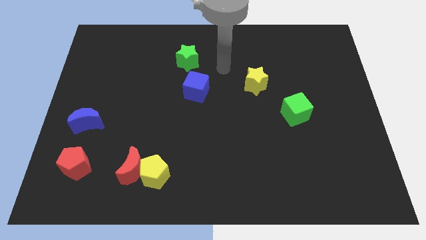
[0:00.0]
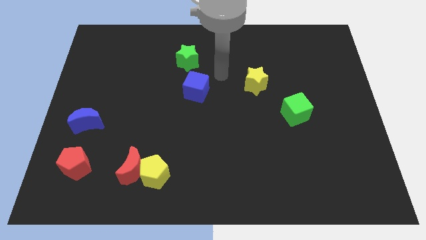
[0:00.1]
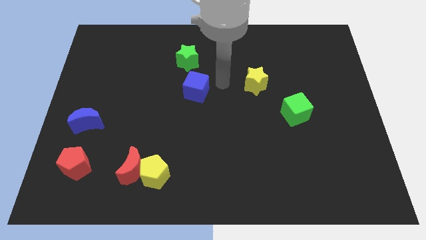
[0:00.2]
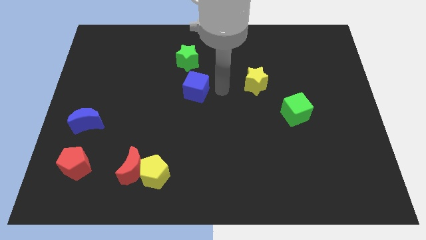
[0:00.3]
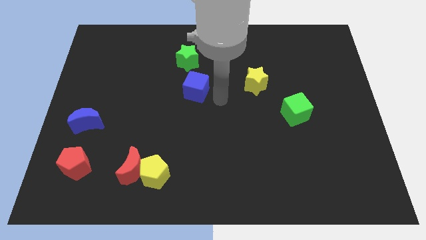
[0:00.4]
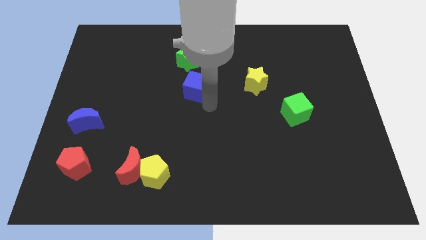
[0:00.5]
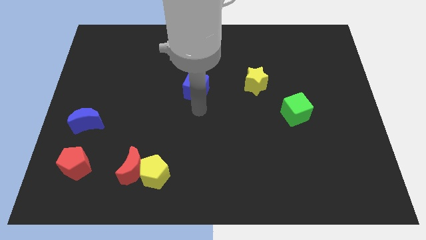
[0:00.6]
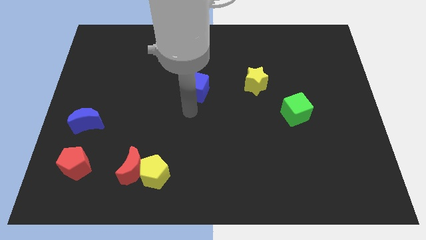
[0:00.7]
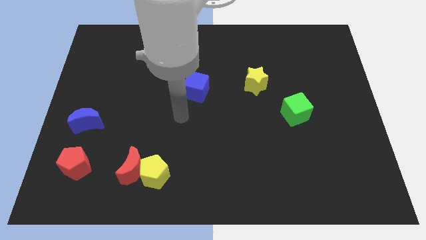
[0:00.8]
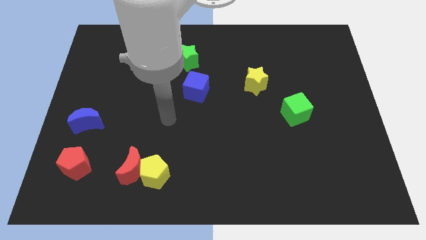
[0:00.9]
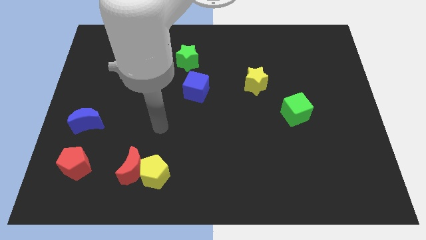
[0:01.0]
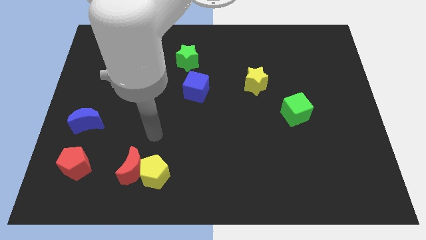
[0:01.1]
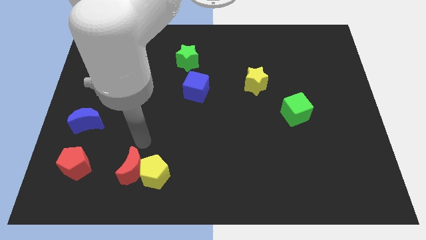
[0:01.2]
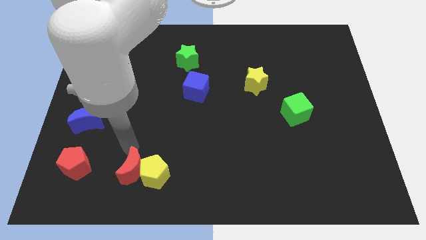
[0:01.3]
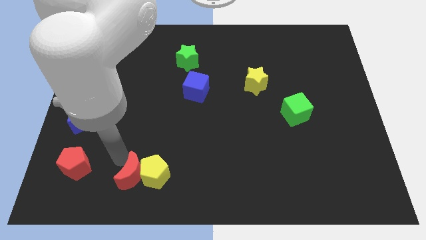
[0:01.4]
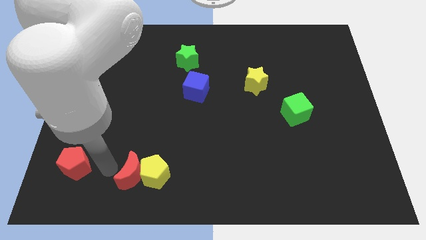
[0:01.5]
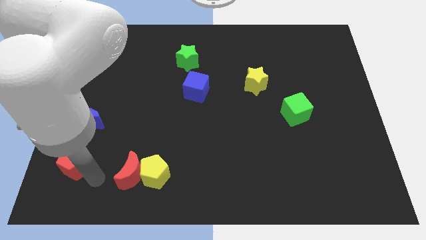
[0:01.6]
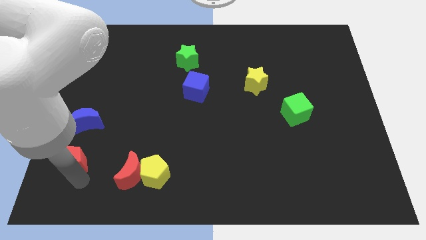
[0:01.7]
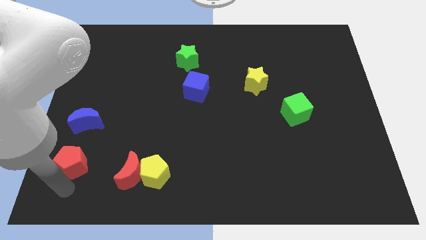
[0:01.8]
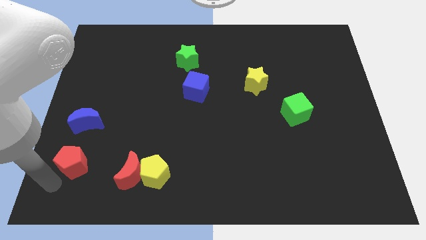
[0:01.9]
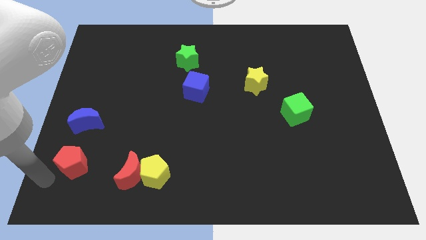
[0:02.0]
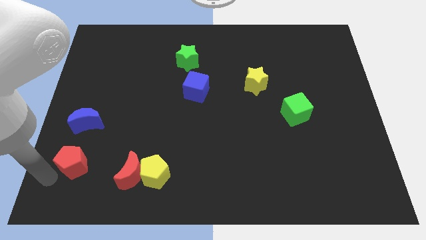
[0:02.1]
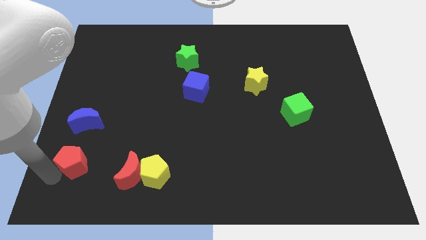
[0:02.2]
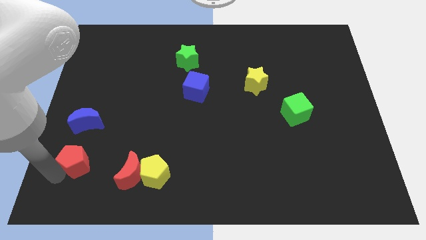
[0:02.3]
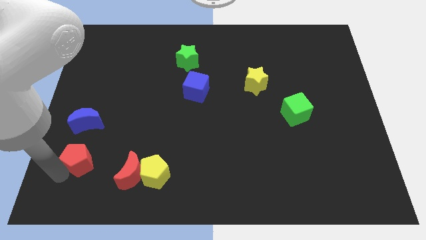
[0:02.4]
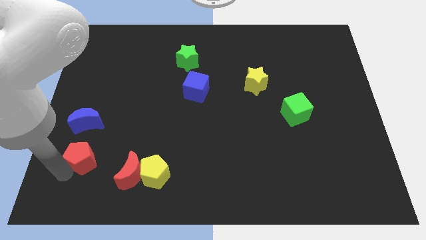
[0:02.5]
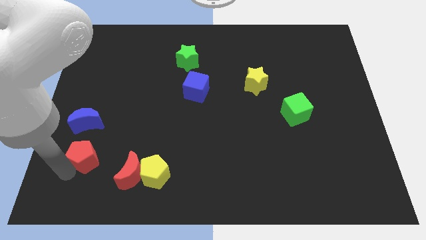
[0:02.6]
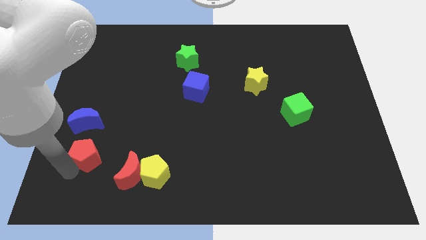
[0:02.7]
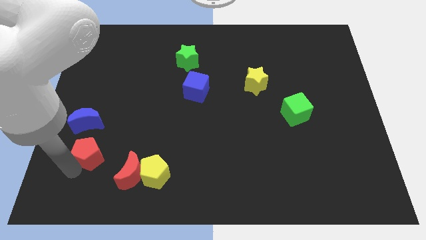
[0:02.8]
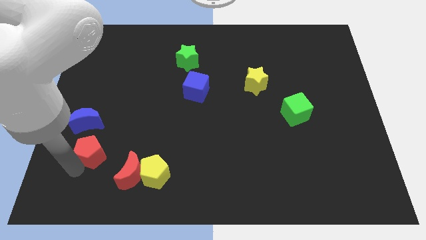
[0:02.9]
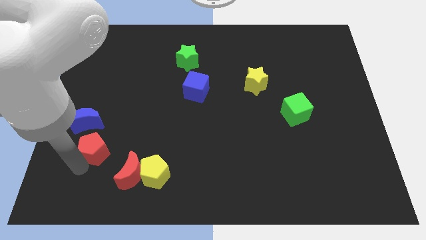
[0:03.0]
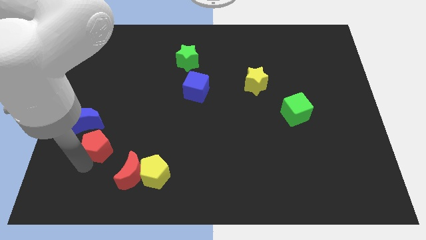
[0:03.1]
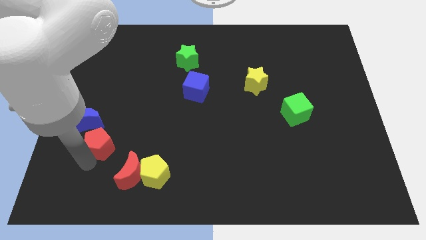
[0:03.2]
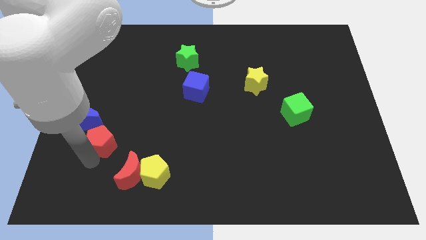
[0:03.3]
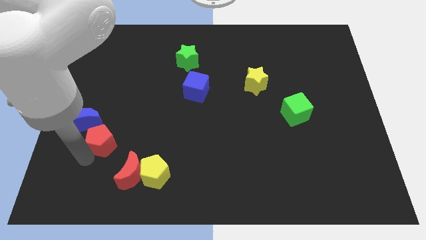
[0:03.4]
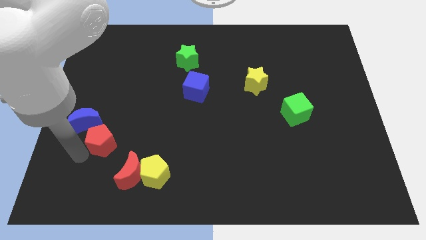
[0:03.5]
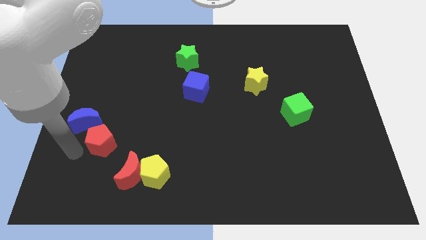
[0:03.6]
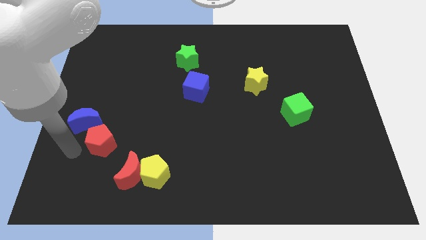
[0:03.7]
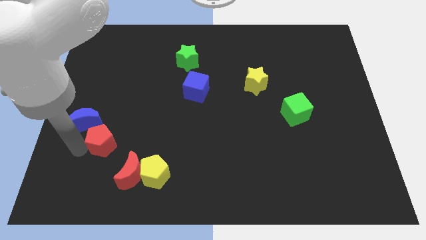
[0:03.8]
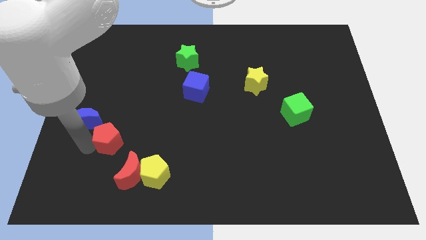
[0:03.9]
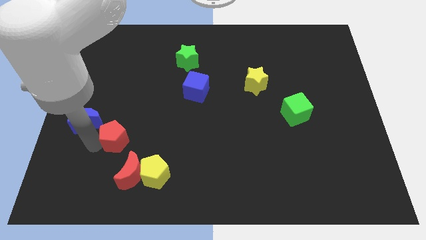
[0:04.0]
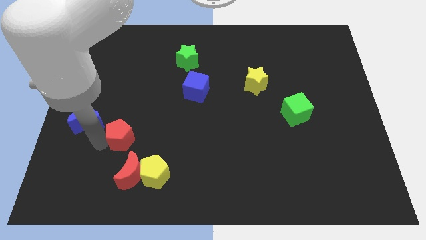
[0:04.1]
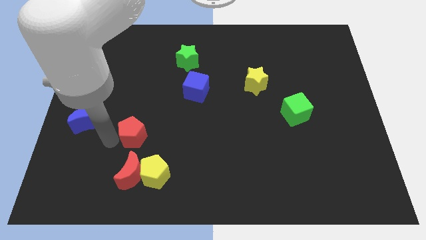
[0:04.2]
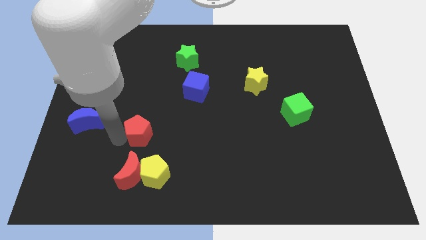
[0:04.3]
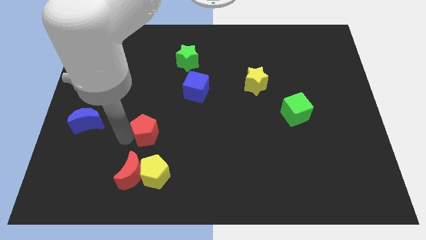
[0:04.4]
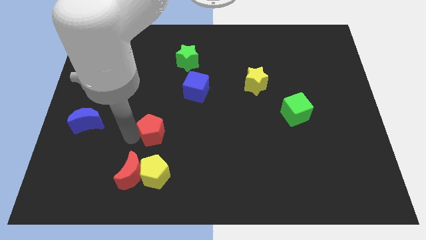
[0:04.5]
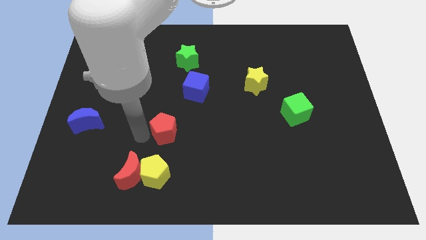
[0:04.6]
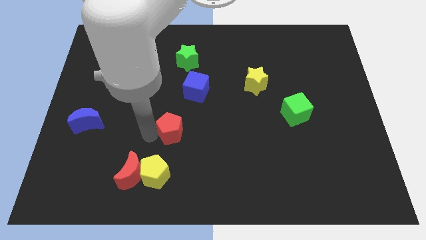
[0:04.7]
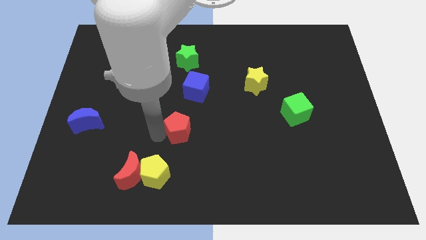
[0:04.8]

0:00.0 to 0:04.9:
move the red pentagon to the middle
